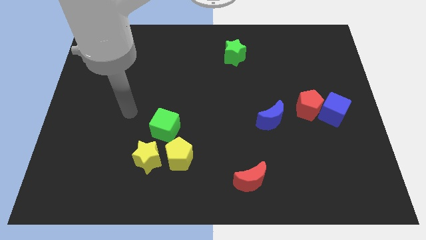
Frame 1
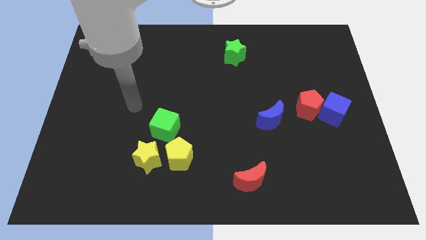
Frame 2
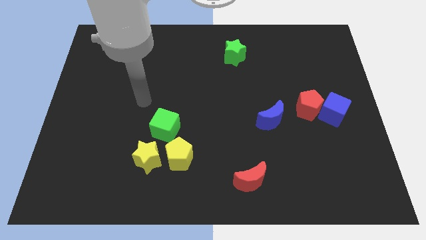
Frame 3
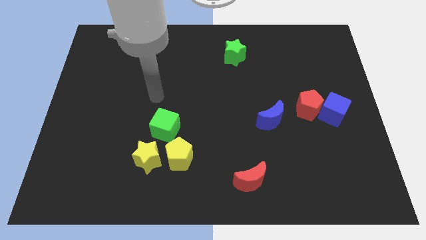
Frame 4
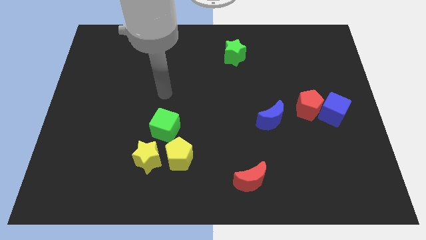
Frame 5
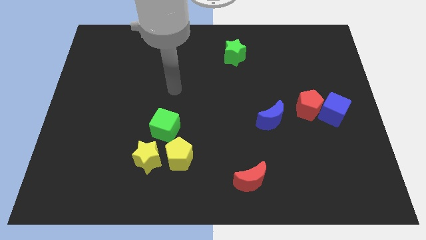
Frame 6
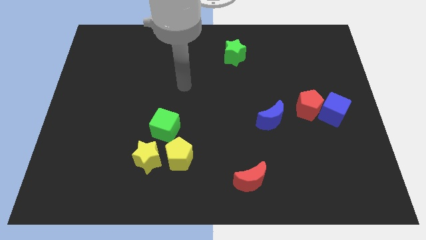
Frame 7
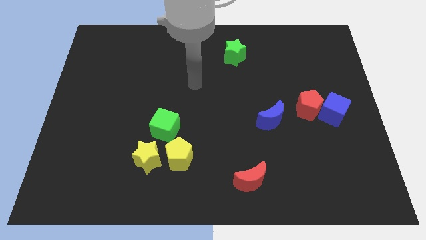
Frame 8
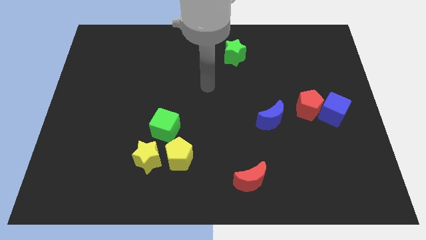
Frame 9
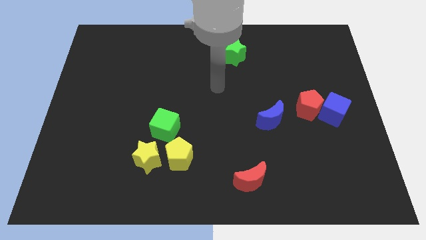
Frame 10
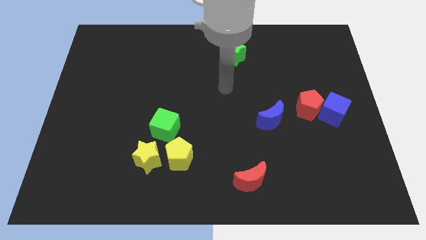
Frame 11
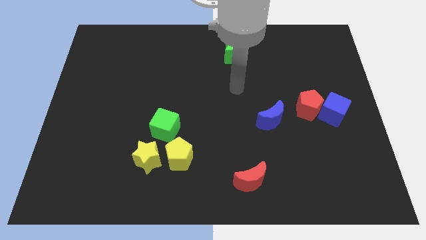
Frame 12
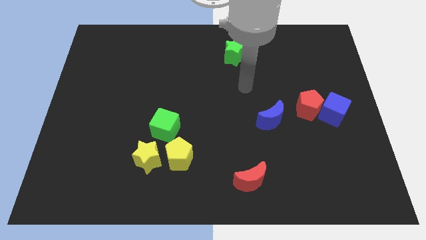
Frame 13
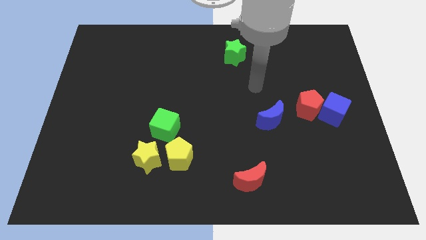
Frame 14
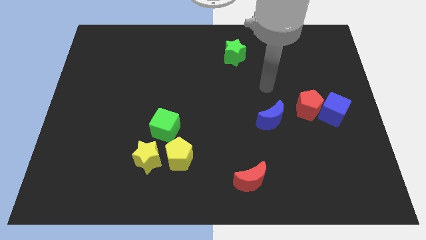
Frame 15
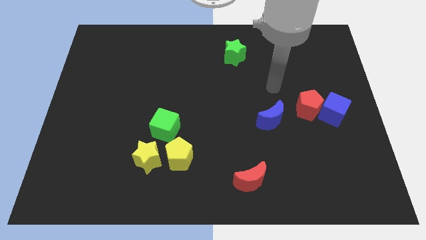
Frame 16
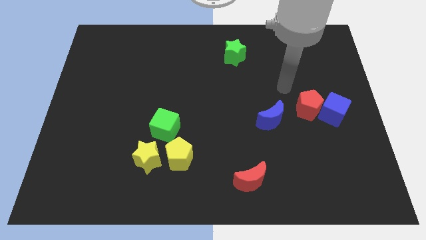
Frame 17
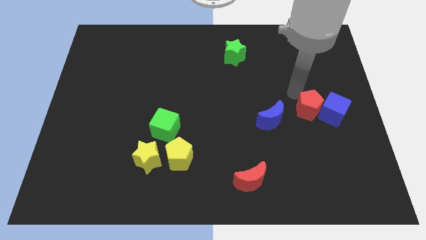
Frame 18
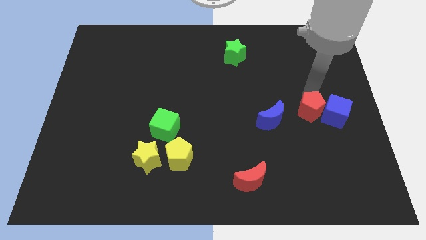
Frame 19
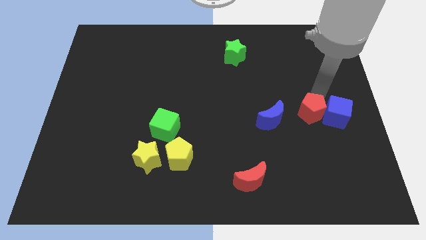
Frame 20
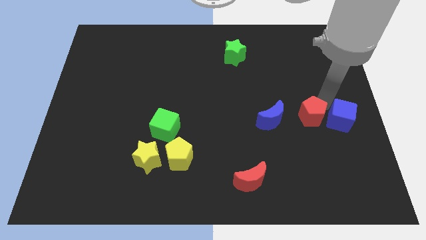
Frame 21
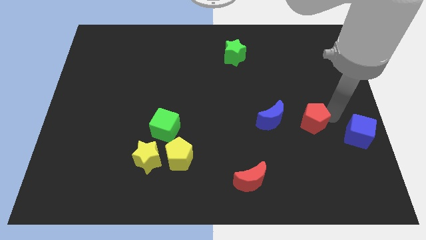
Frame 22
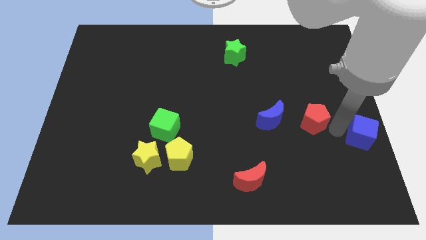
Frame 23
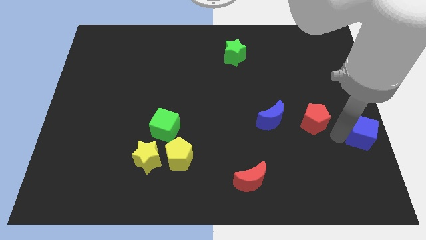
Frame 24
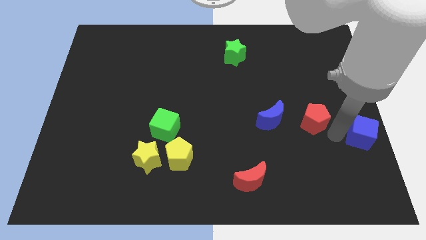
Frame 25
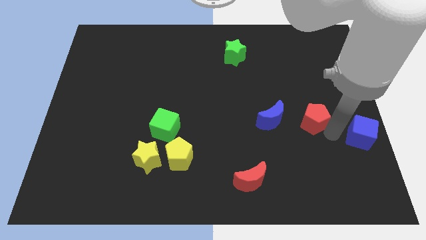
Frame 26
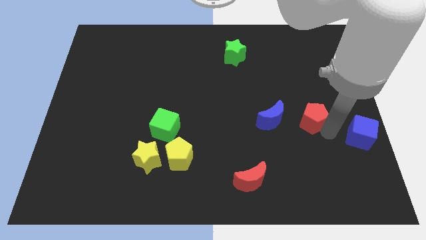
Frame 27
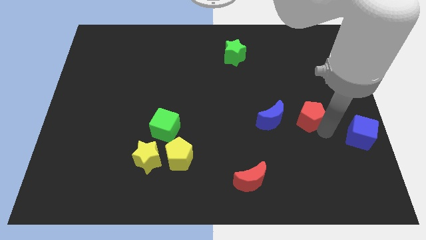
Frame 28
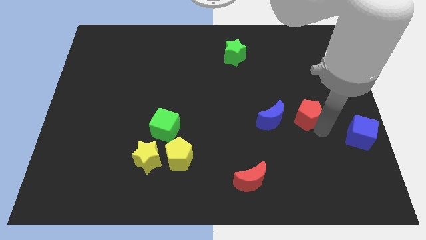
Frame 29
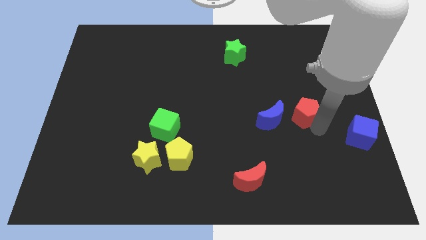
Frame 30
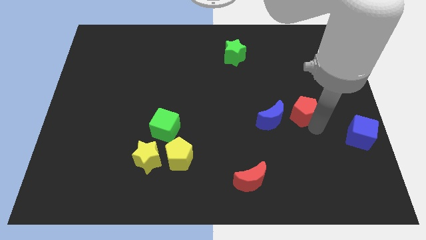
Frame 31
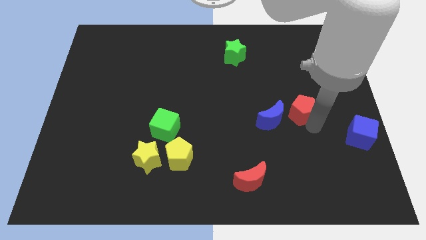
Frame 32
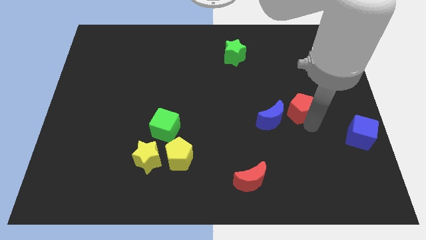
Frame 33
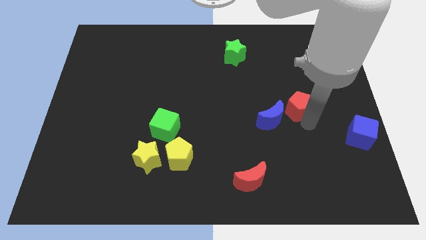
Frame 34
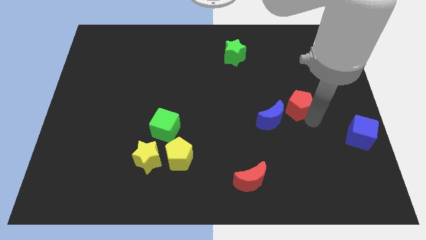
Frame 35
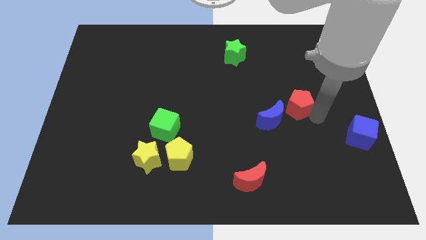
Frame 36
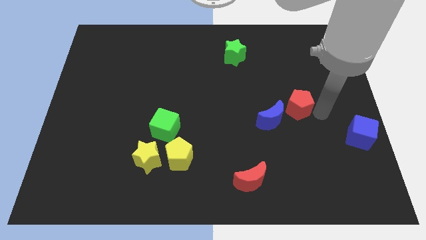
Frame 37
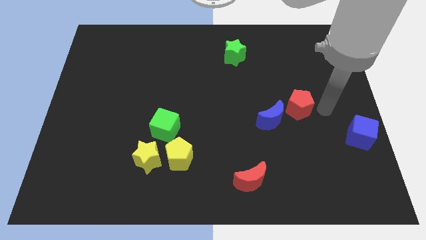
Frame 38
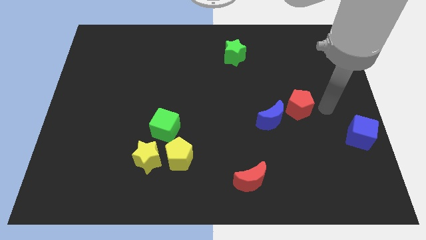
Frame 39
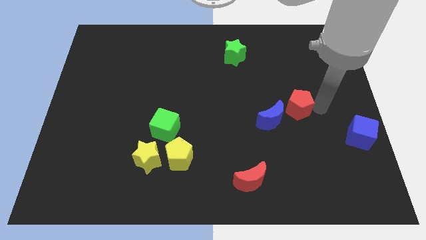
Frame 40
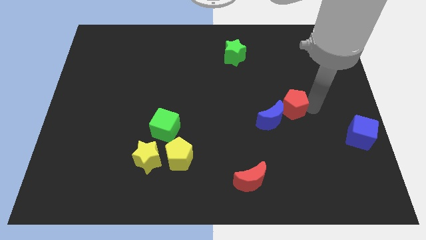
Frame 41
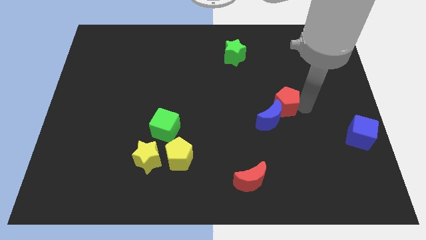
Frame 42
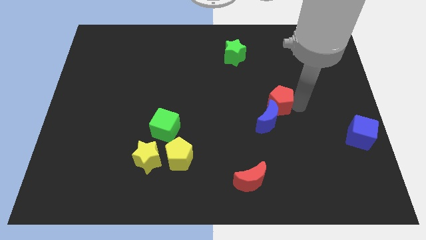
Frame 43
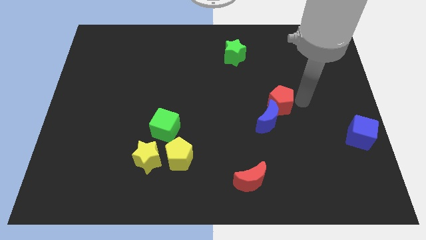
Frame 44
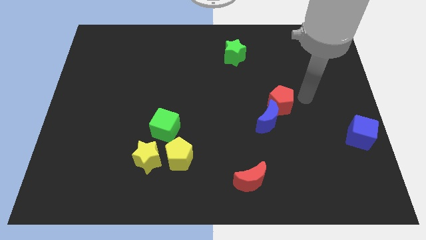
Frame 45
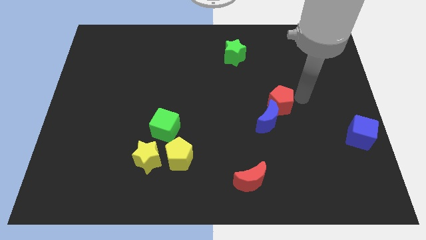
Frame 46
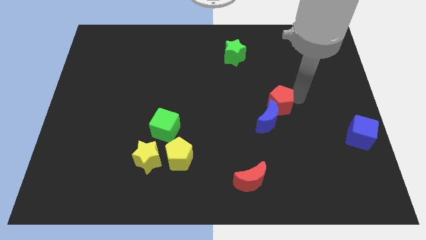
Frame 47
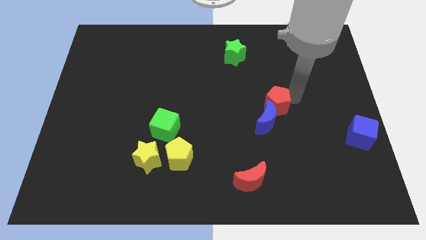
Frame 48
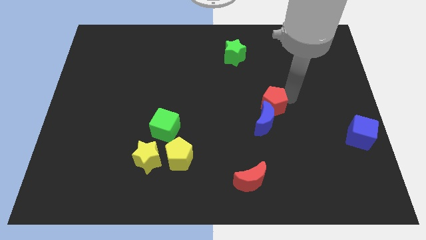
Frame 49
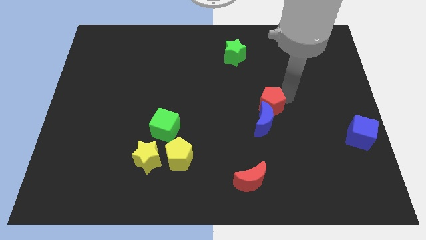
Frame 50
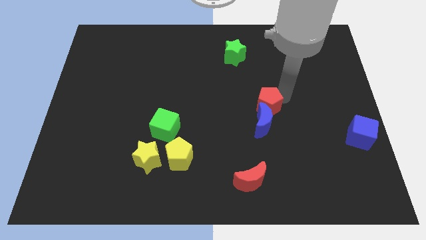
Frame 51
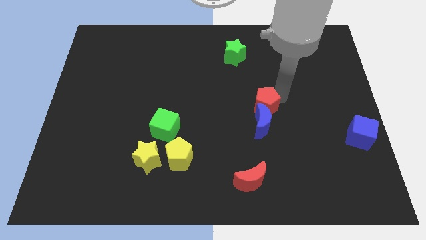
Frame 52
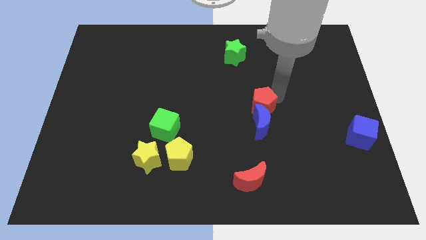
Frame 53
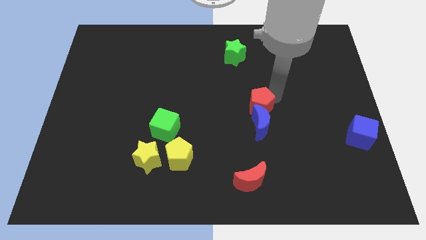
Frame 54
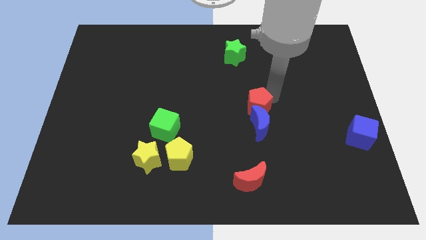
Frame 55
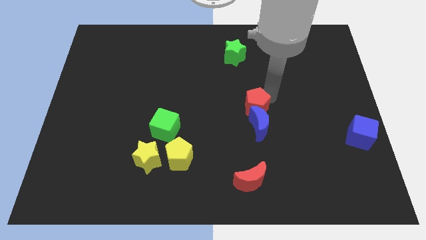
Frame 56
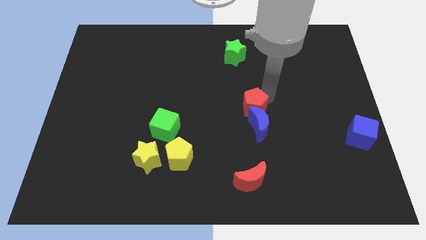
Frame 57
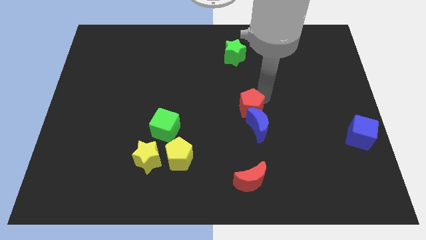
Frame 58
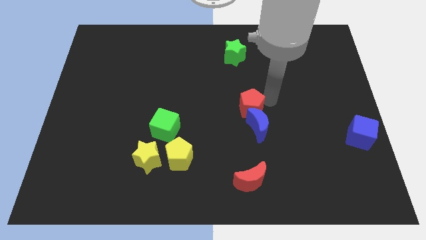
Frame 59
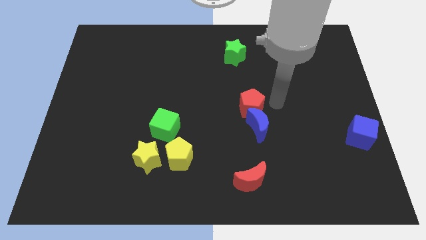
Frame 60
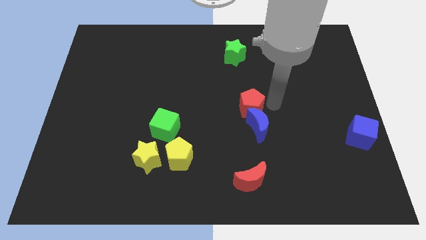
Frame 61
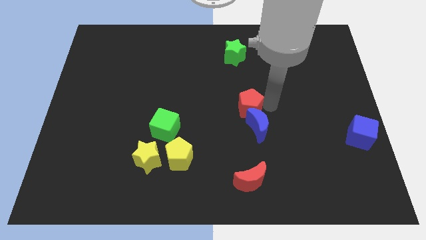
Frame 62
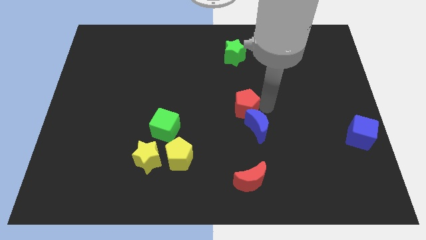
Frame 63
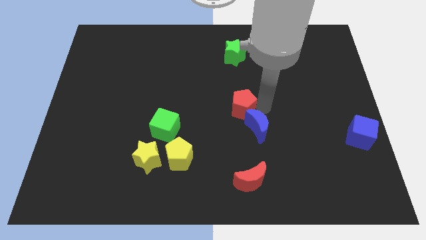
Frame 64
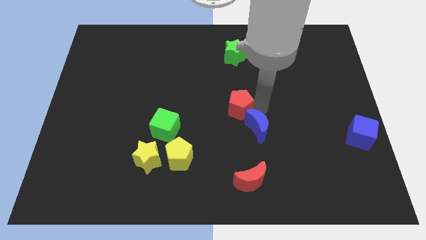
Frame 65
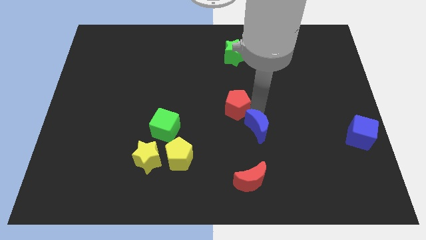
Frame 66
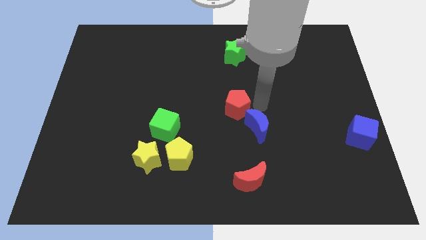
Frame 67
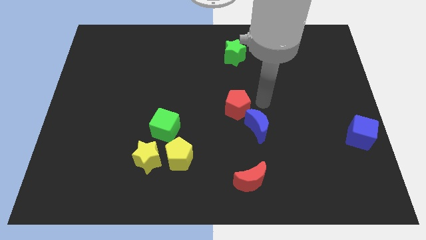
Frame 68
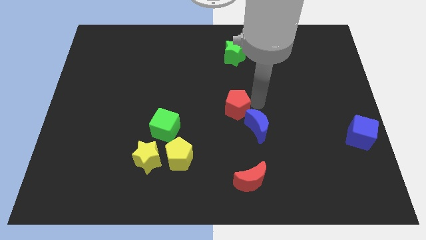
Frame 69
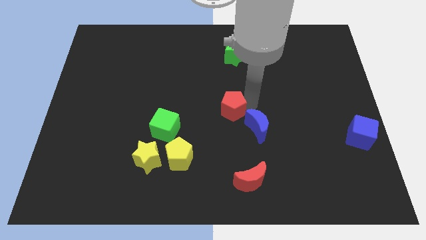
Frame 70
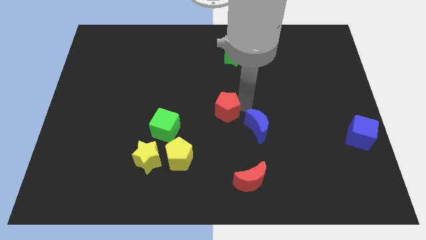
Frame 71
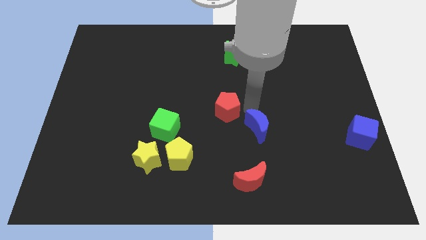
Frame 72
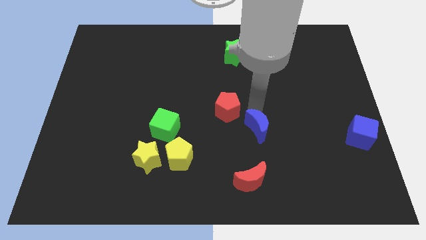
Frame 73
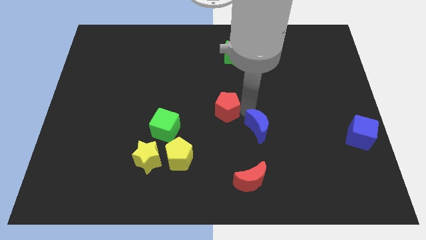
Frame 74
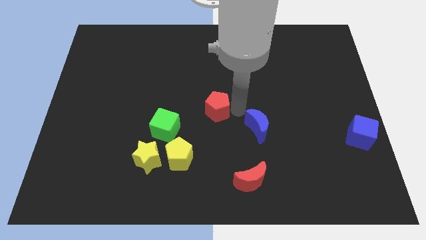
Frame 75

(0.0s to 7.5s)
move the red pentagon left

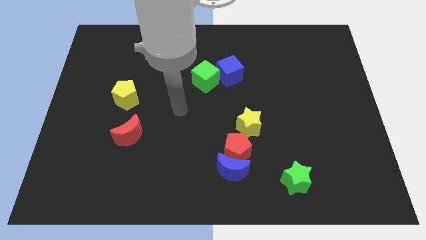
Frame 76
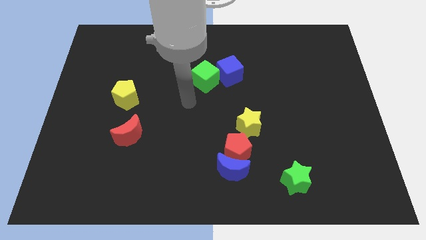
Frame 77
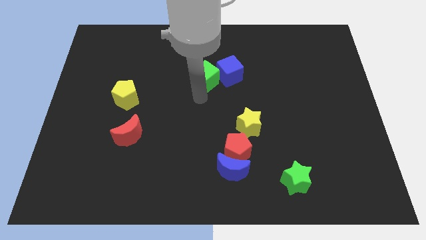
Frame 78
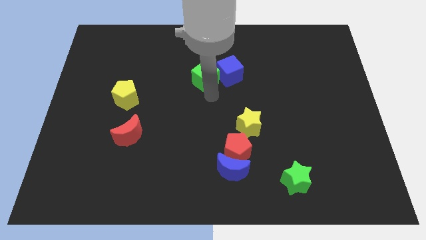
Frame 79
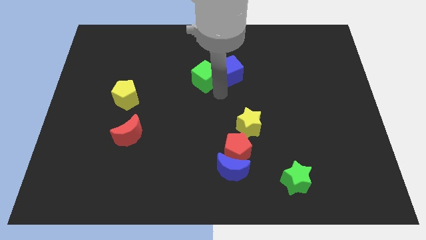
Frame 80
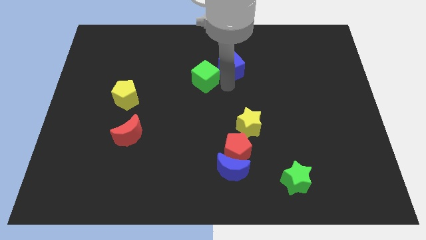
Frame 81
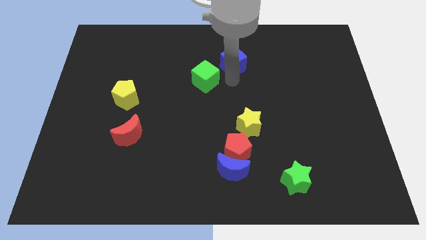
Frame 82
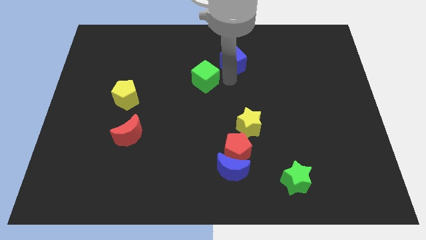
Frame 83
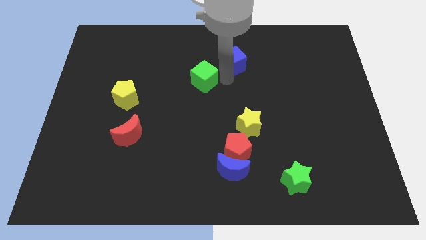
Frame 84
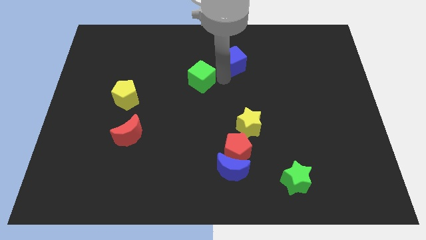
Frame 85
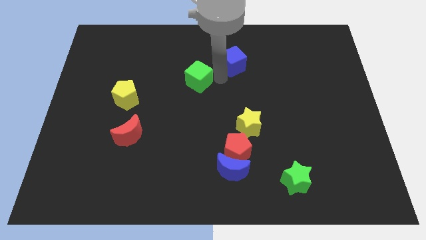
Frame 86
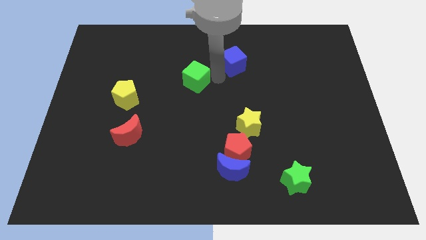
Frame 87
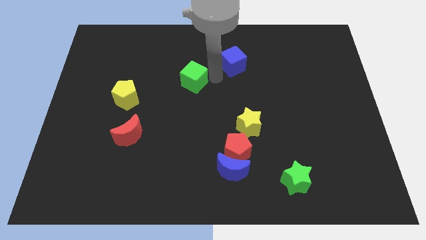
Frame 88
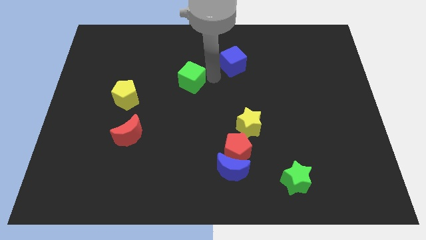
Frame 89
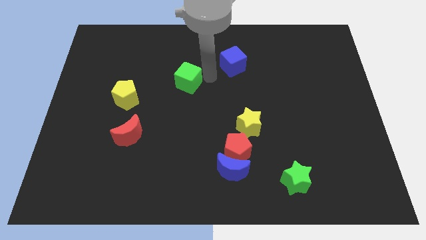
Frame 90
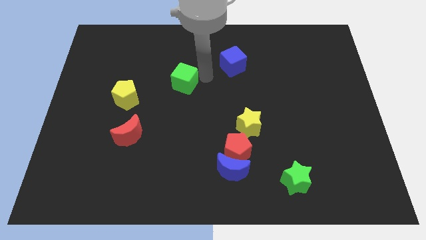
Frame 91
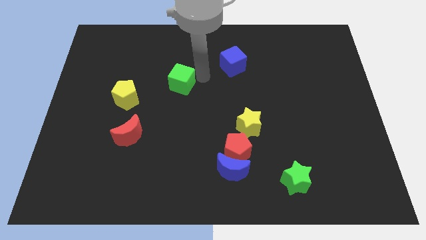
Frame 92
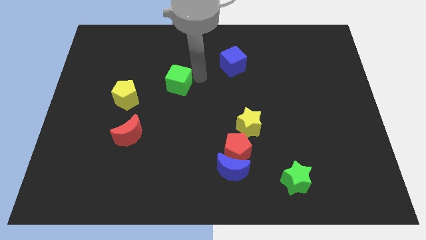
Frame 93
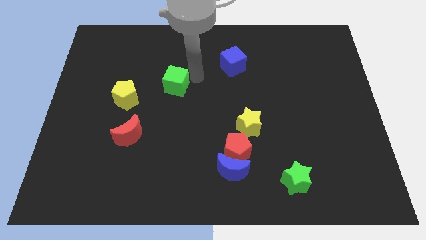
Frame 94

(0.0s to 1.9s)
push the green cube somewhat left
